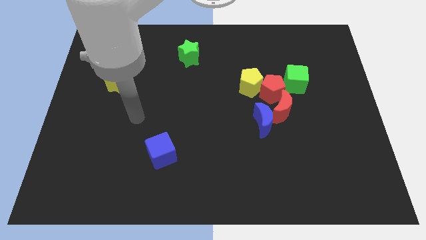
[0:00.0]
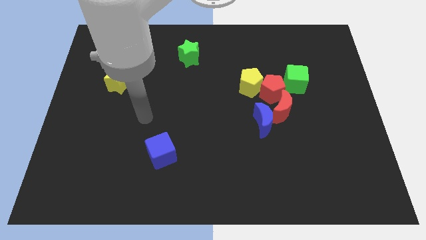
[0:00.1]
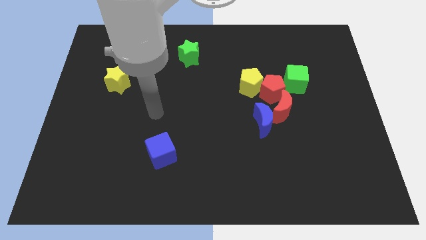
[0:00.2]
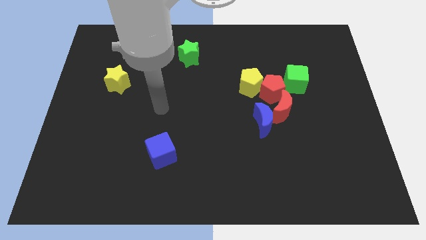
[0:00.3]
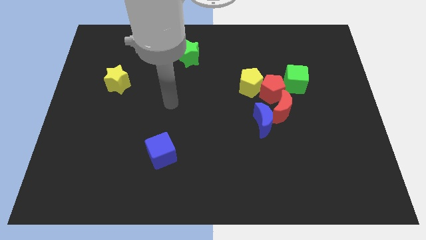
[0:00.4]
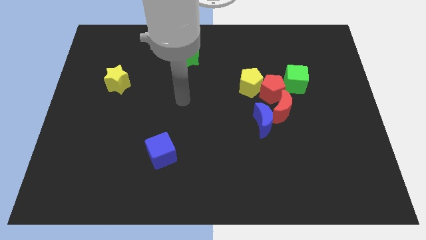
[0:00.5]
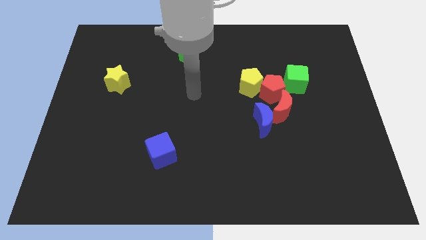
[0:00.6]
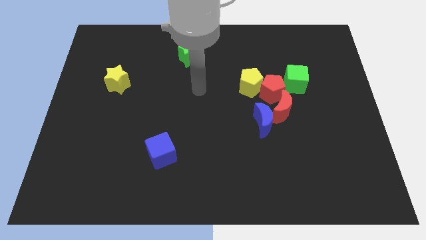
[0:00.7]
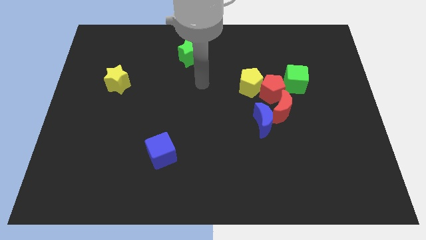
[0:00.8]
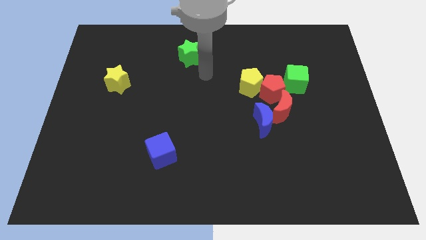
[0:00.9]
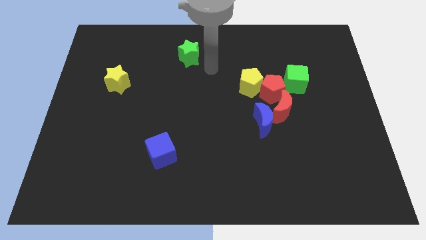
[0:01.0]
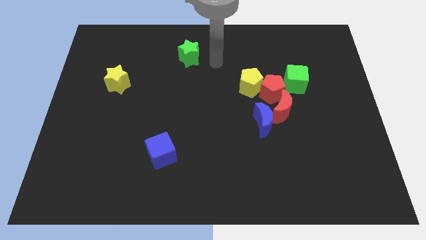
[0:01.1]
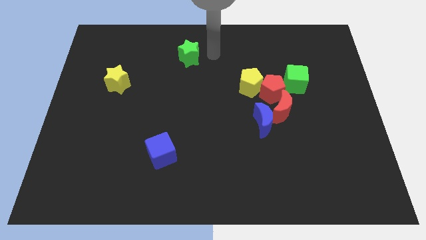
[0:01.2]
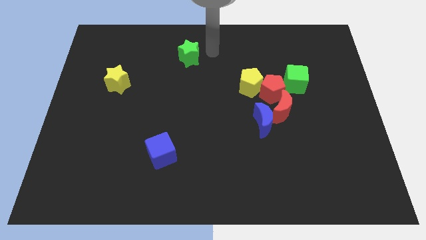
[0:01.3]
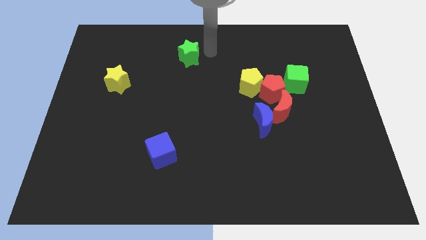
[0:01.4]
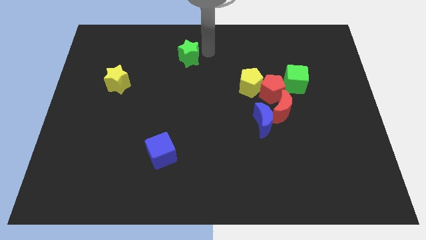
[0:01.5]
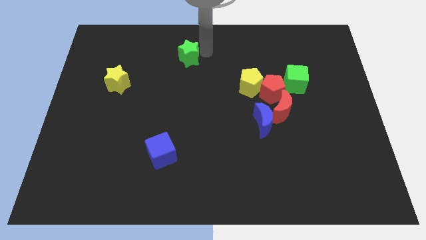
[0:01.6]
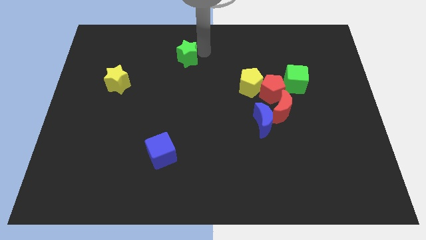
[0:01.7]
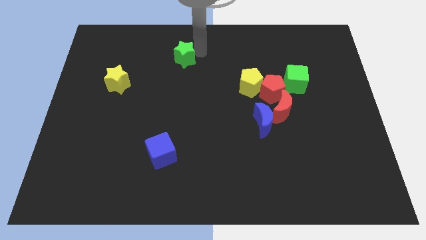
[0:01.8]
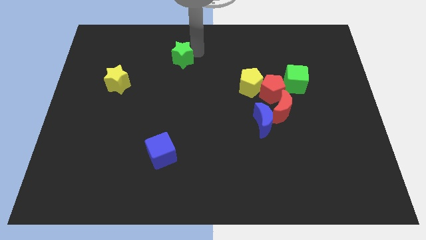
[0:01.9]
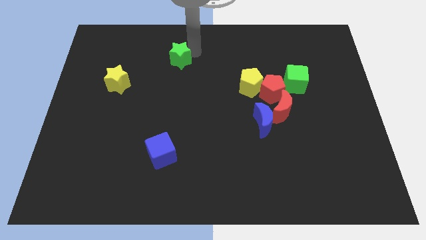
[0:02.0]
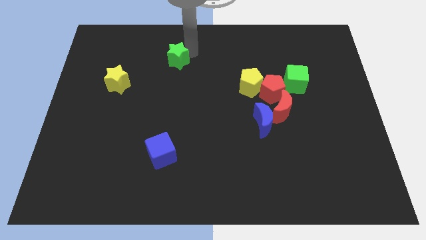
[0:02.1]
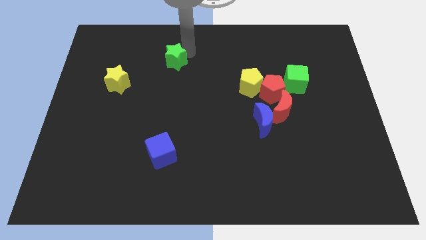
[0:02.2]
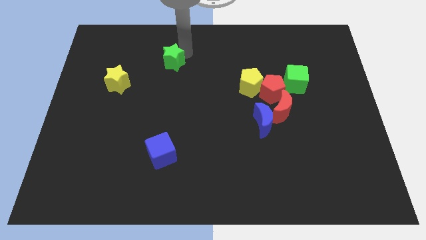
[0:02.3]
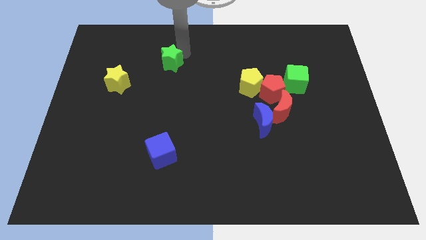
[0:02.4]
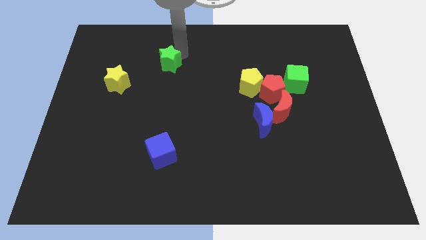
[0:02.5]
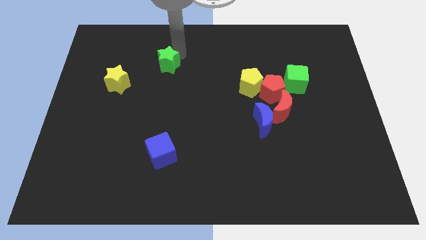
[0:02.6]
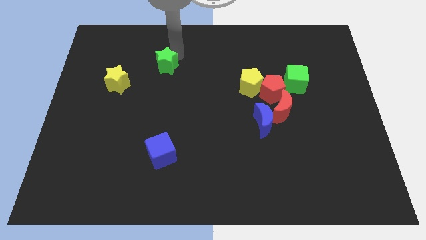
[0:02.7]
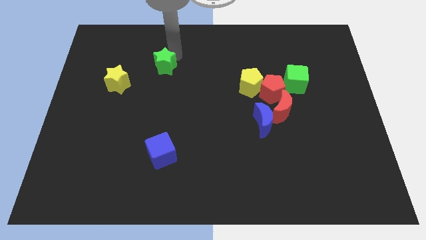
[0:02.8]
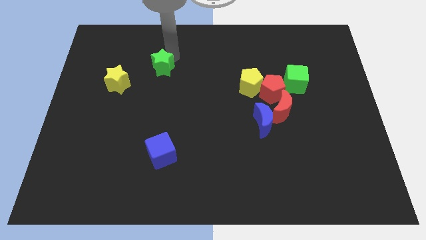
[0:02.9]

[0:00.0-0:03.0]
slide the green star somewhat diagonally down and to the left

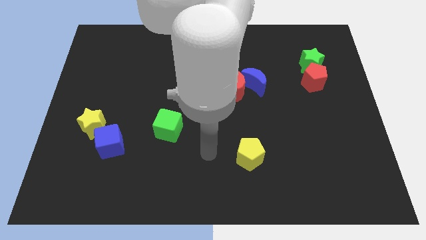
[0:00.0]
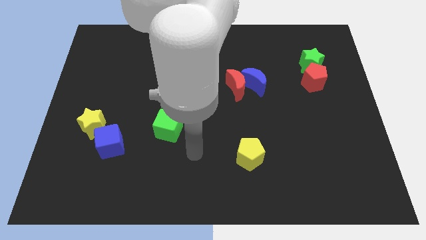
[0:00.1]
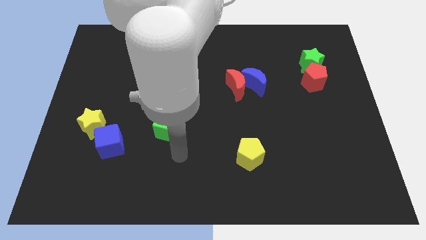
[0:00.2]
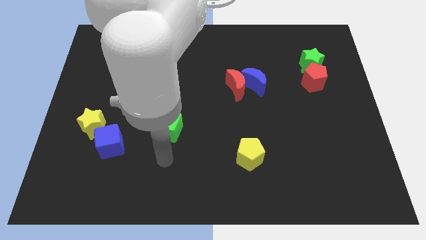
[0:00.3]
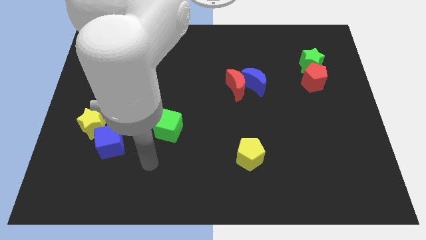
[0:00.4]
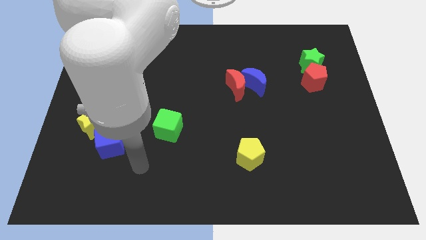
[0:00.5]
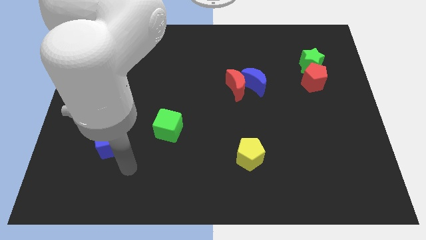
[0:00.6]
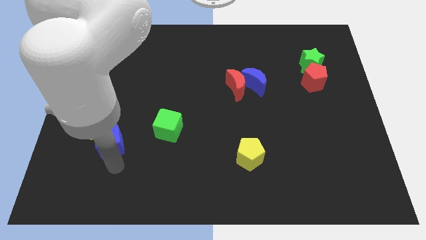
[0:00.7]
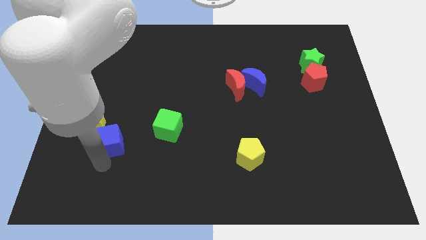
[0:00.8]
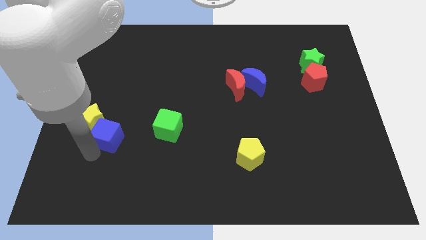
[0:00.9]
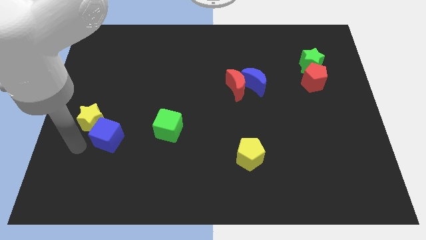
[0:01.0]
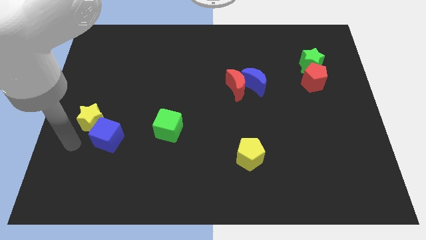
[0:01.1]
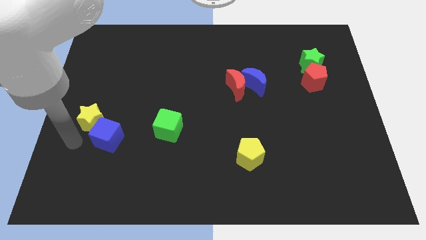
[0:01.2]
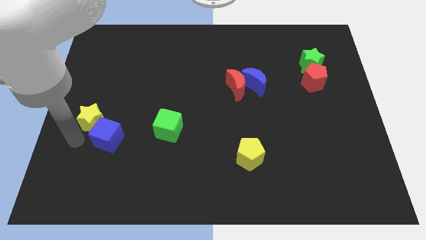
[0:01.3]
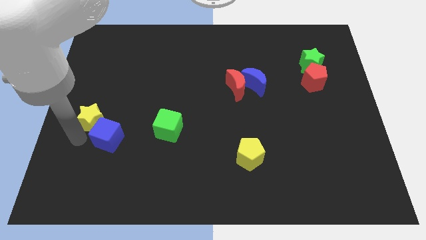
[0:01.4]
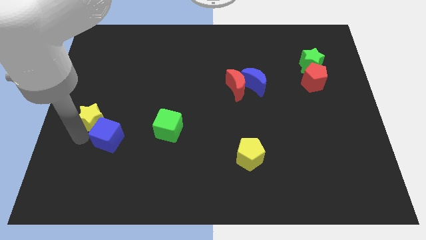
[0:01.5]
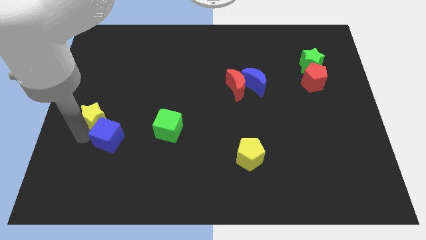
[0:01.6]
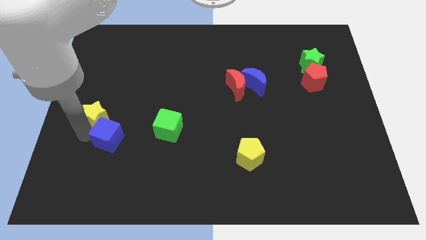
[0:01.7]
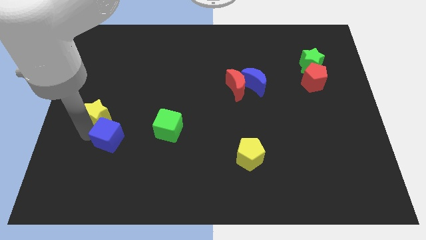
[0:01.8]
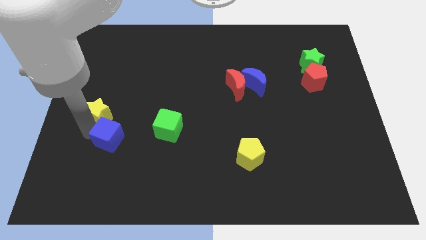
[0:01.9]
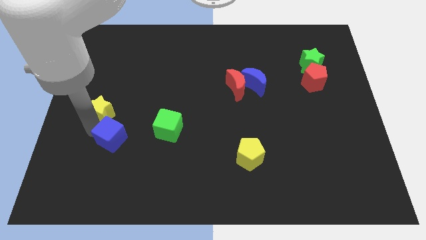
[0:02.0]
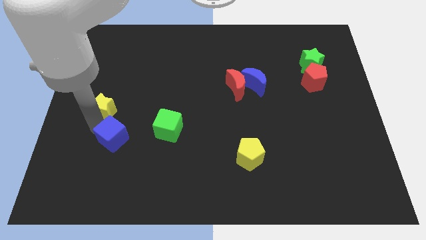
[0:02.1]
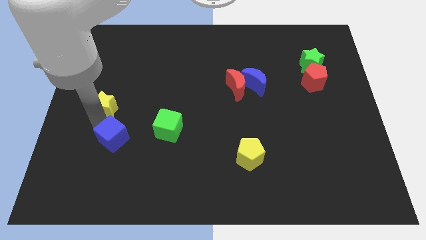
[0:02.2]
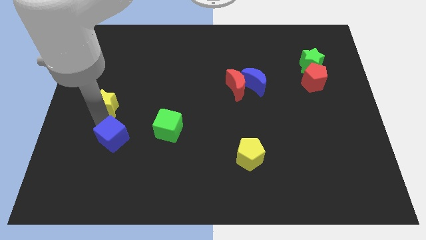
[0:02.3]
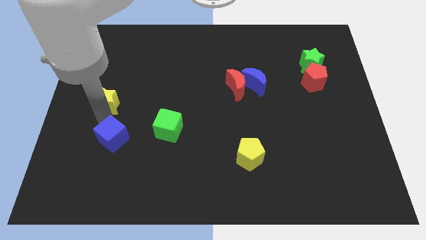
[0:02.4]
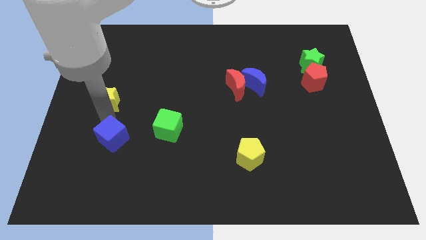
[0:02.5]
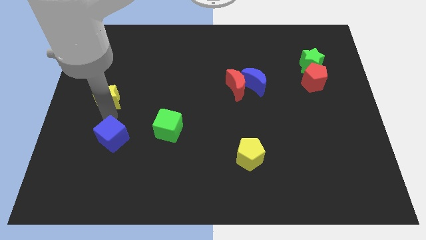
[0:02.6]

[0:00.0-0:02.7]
slide the yellow star upwards slightly

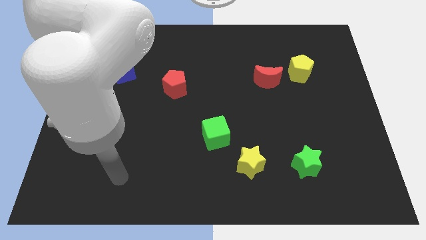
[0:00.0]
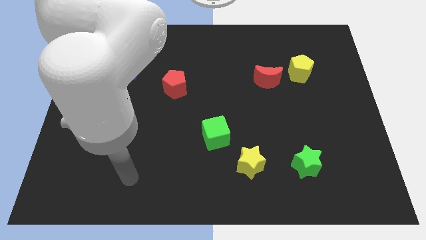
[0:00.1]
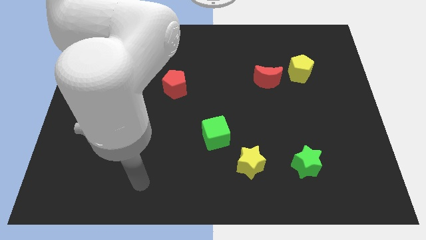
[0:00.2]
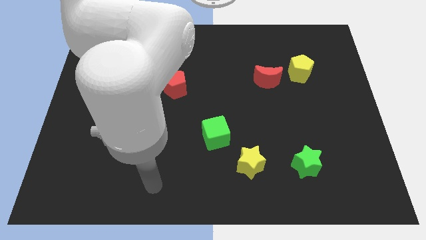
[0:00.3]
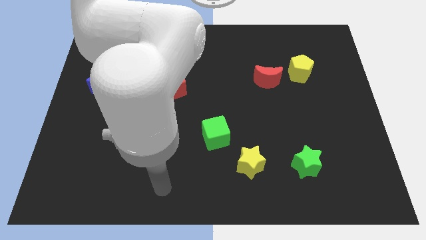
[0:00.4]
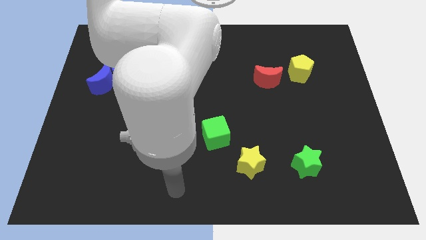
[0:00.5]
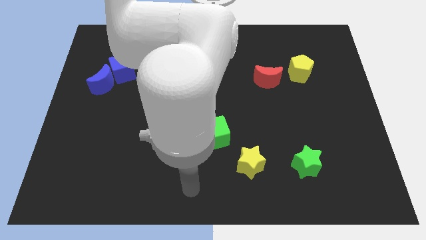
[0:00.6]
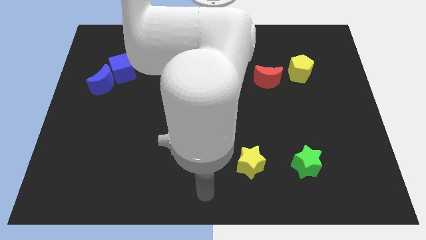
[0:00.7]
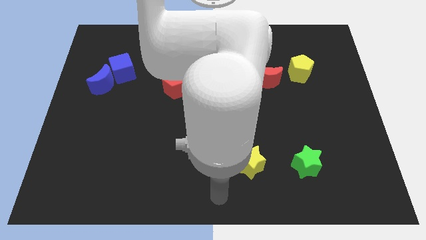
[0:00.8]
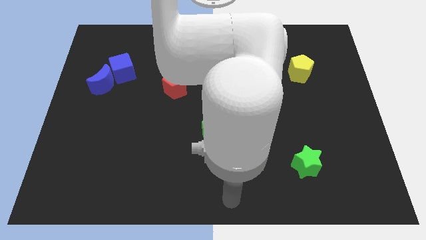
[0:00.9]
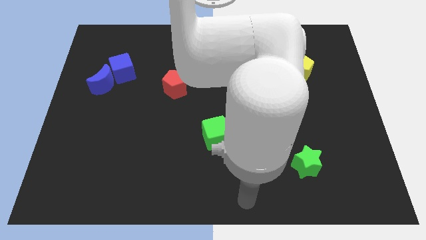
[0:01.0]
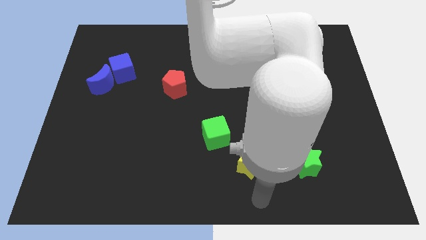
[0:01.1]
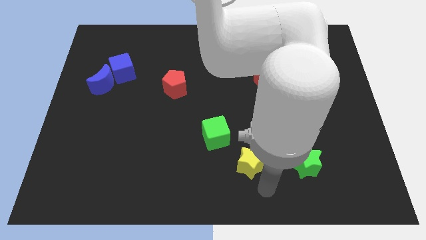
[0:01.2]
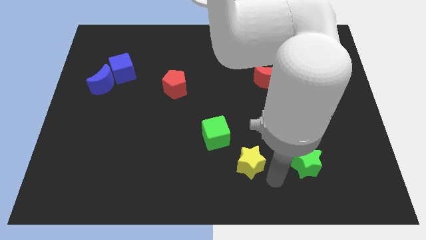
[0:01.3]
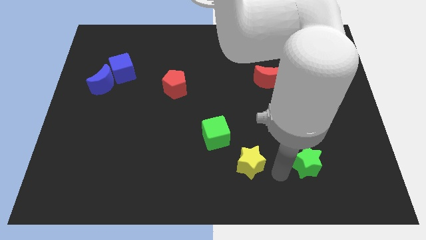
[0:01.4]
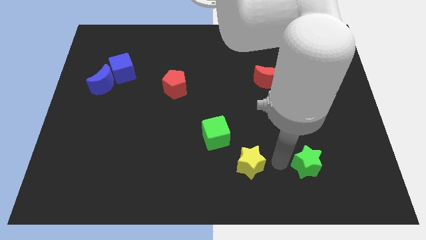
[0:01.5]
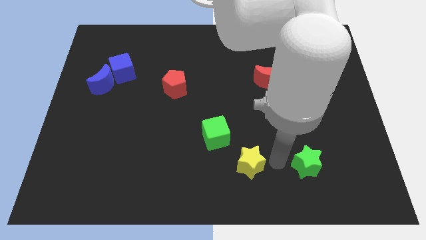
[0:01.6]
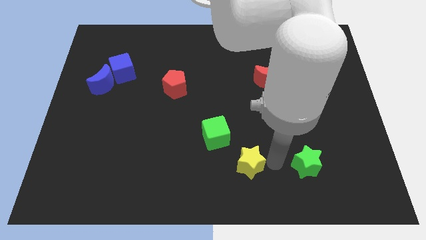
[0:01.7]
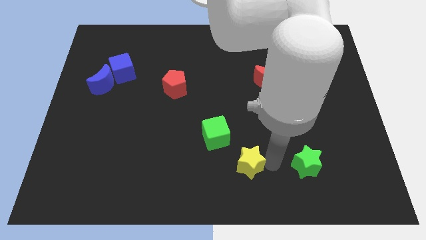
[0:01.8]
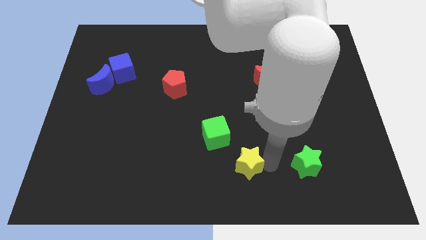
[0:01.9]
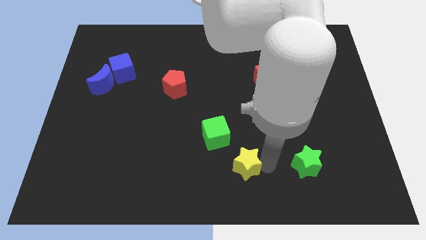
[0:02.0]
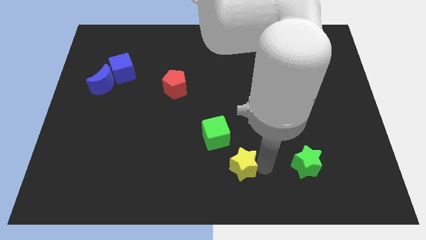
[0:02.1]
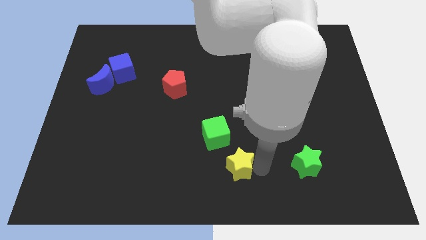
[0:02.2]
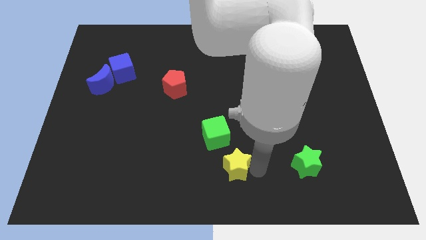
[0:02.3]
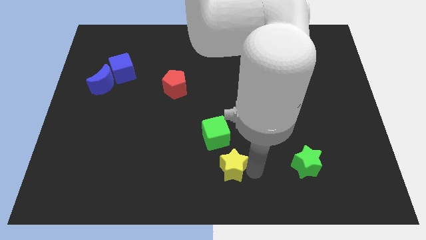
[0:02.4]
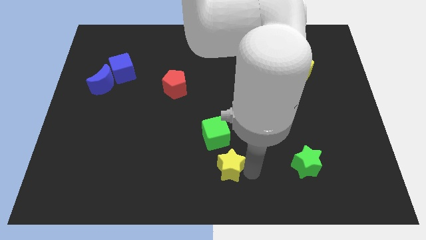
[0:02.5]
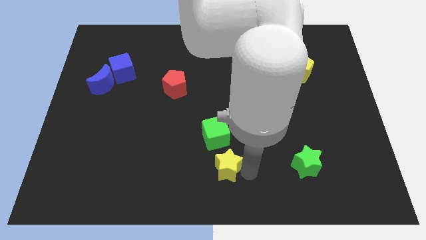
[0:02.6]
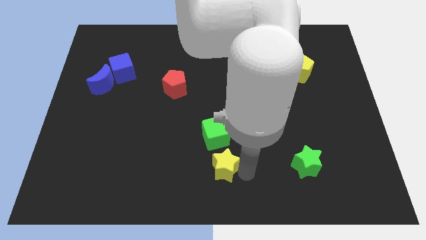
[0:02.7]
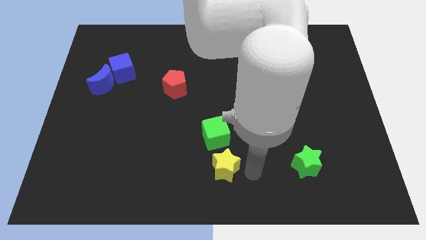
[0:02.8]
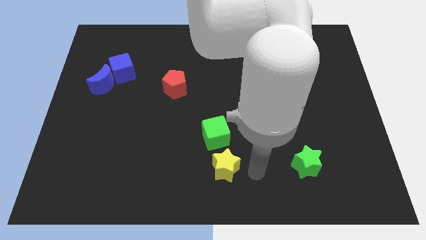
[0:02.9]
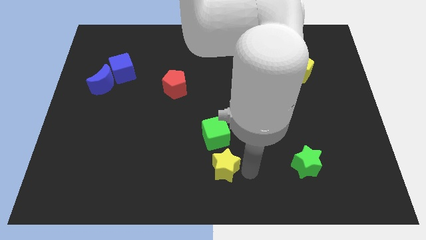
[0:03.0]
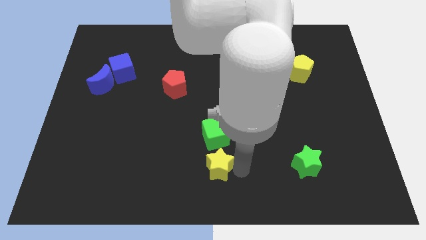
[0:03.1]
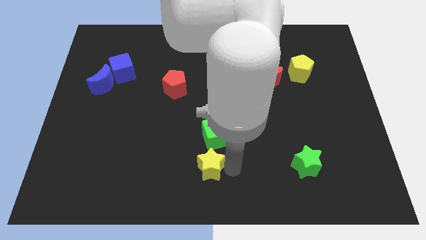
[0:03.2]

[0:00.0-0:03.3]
slide the yellow star left a little
